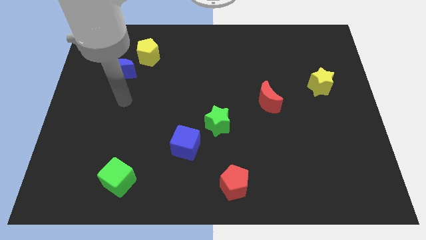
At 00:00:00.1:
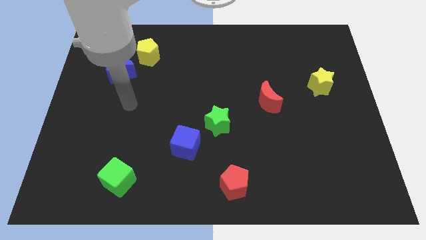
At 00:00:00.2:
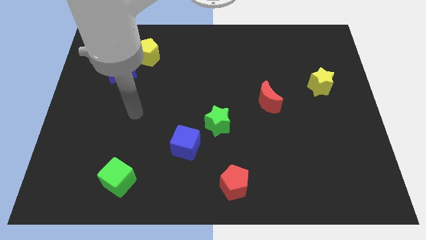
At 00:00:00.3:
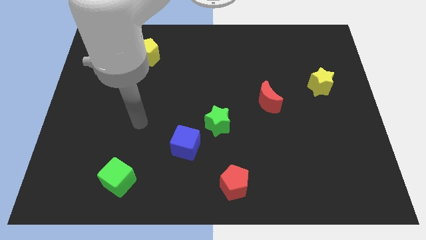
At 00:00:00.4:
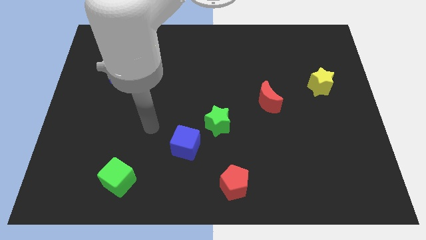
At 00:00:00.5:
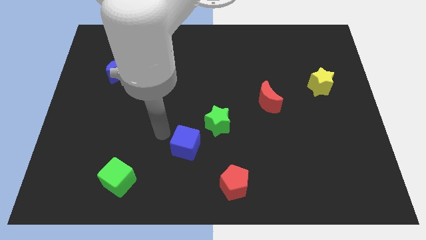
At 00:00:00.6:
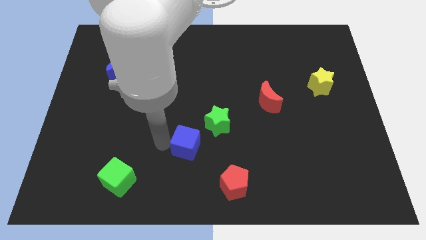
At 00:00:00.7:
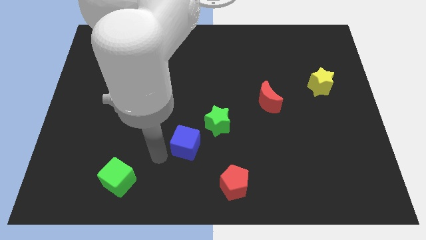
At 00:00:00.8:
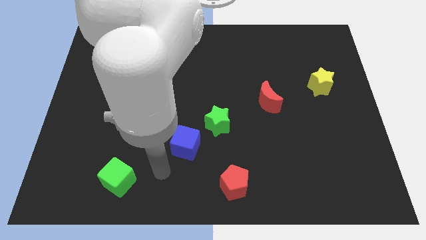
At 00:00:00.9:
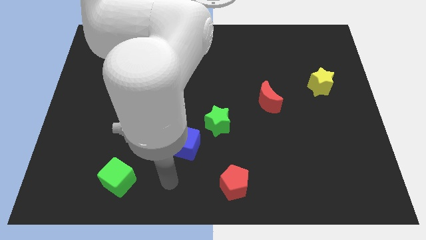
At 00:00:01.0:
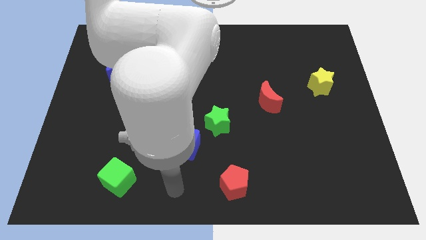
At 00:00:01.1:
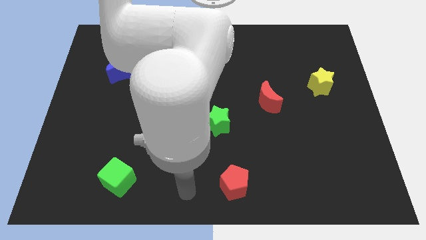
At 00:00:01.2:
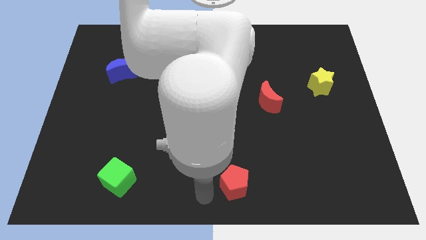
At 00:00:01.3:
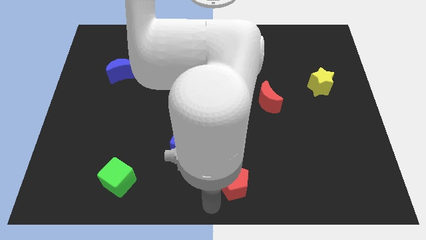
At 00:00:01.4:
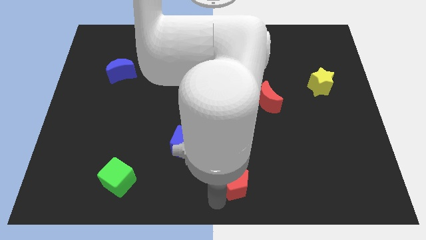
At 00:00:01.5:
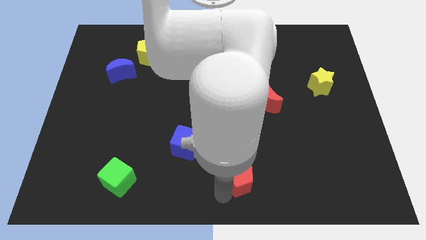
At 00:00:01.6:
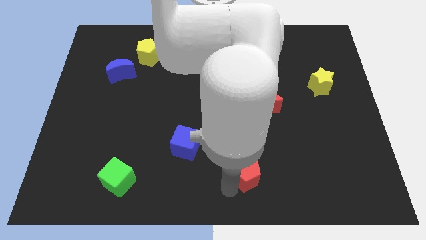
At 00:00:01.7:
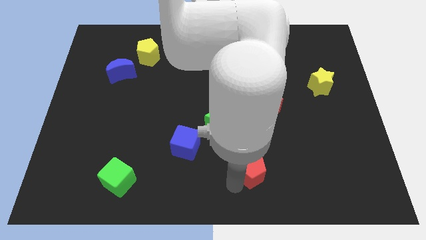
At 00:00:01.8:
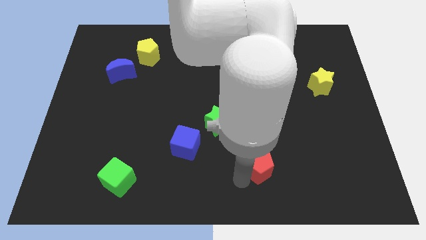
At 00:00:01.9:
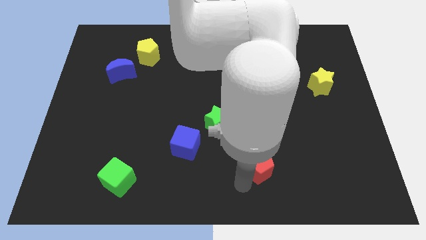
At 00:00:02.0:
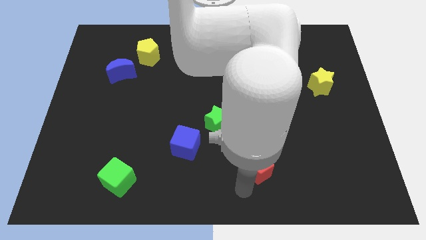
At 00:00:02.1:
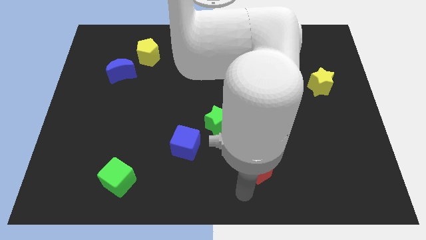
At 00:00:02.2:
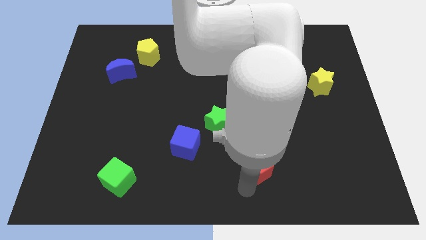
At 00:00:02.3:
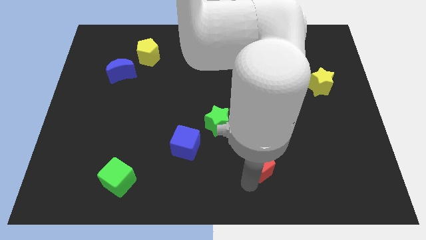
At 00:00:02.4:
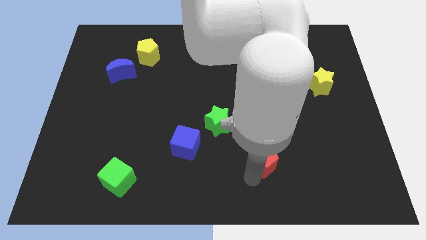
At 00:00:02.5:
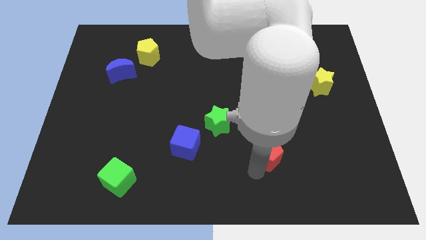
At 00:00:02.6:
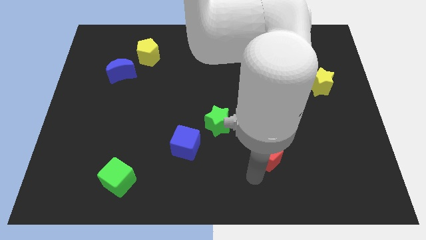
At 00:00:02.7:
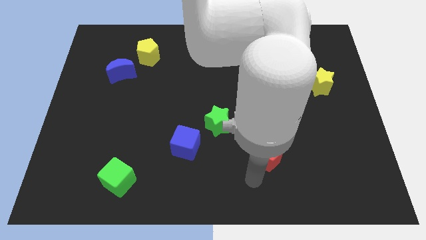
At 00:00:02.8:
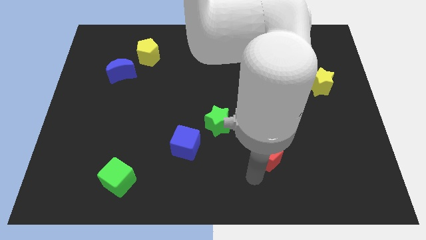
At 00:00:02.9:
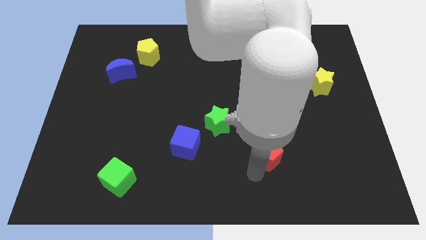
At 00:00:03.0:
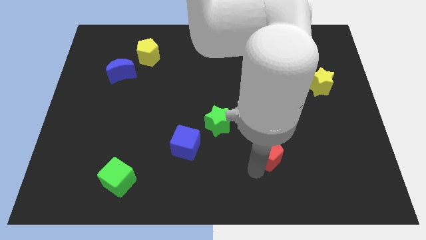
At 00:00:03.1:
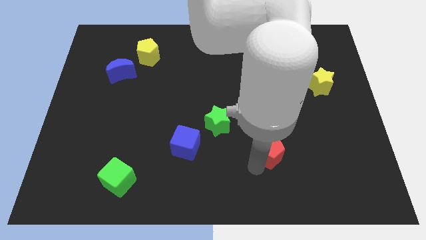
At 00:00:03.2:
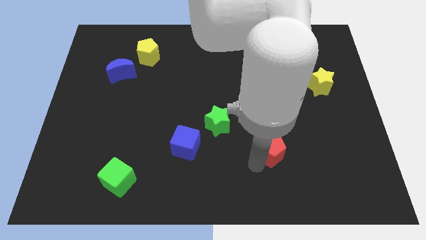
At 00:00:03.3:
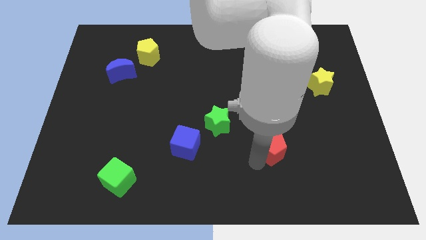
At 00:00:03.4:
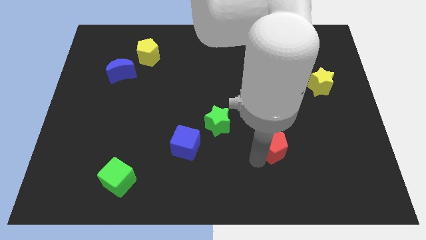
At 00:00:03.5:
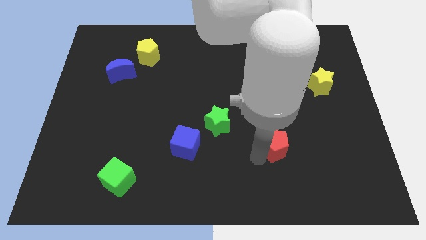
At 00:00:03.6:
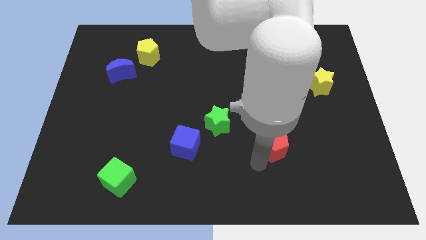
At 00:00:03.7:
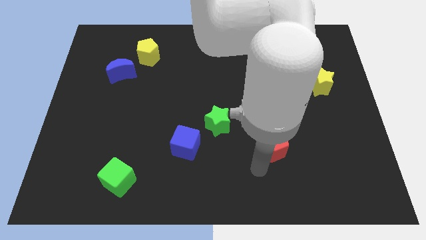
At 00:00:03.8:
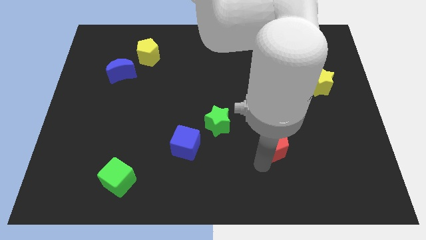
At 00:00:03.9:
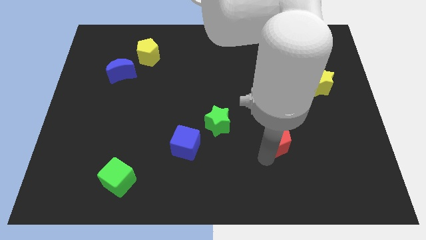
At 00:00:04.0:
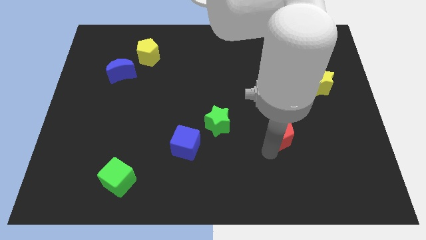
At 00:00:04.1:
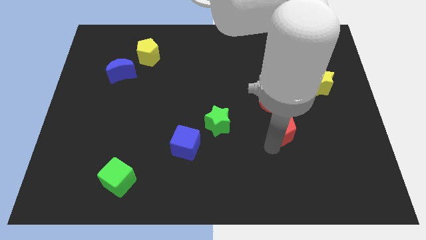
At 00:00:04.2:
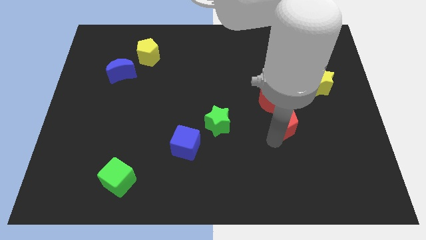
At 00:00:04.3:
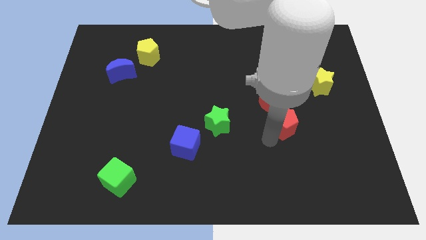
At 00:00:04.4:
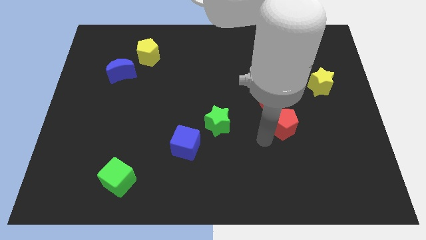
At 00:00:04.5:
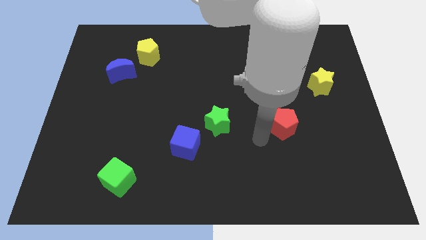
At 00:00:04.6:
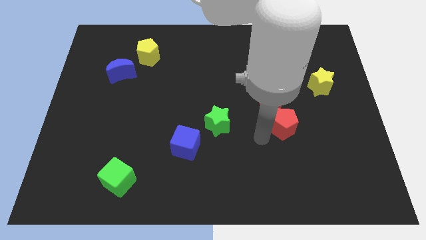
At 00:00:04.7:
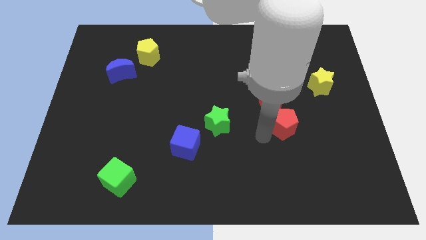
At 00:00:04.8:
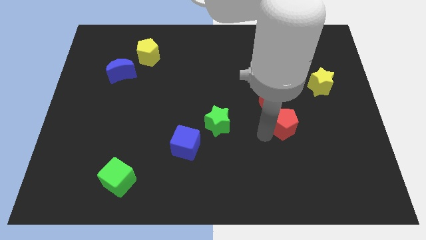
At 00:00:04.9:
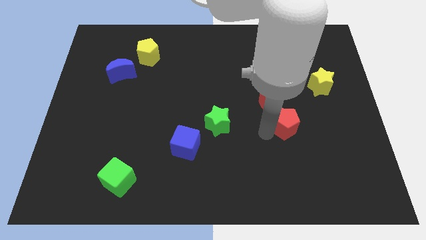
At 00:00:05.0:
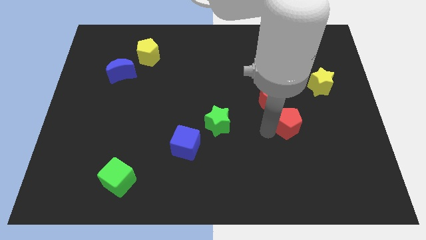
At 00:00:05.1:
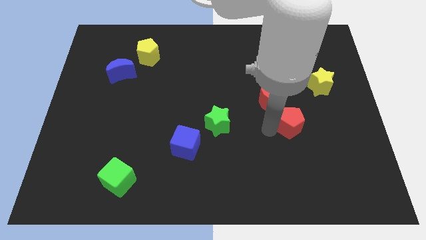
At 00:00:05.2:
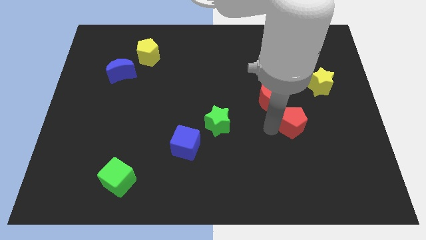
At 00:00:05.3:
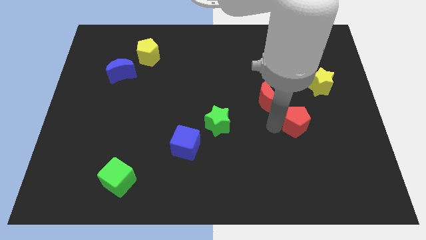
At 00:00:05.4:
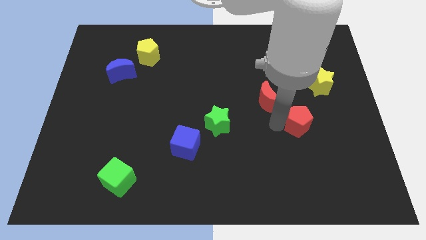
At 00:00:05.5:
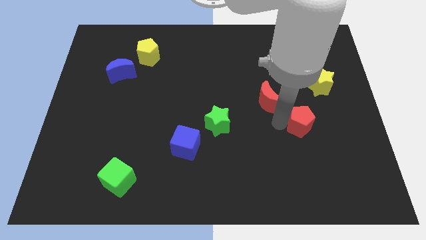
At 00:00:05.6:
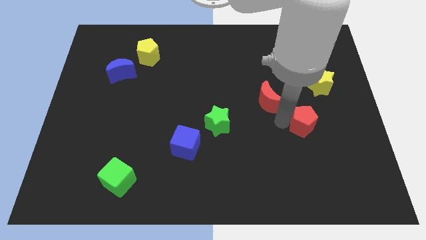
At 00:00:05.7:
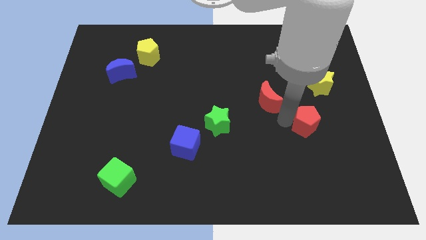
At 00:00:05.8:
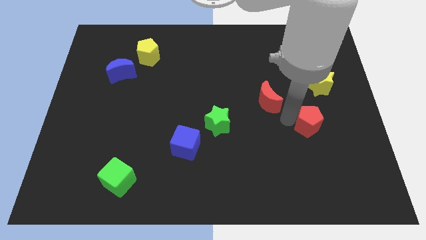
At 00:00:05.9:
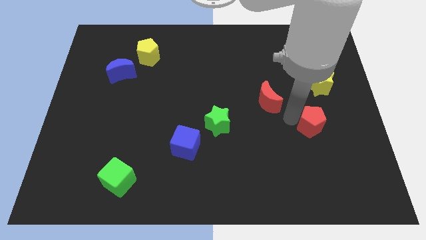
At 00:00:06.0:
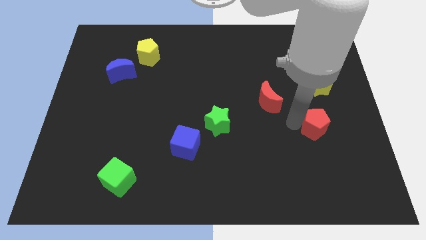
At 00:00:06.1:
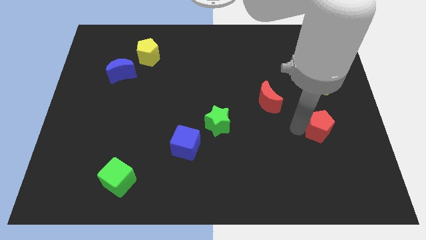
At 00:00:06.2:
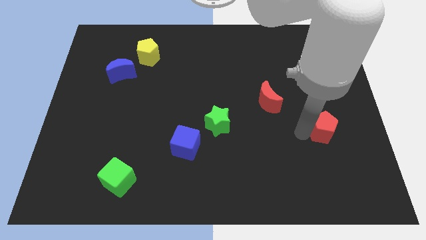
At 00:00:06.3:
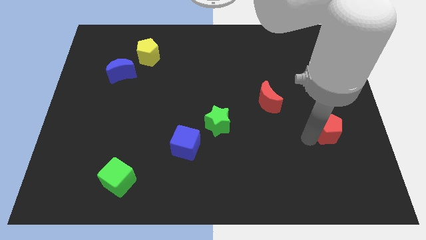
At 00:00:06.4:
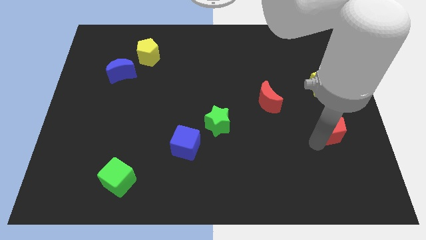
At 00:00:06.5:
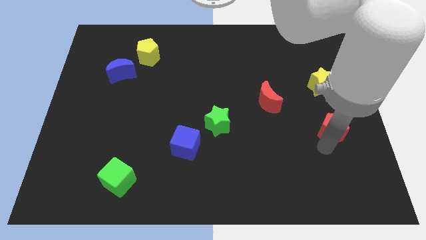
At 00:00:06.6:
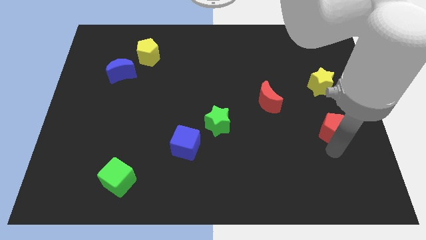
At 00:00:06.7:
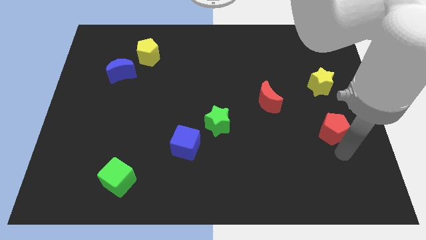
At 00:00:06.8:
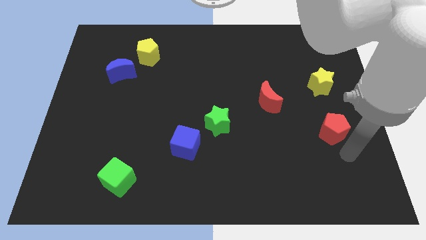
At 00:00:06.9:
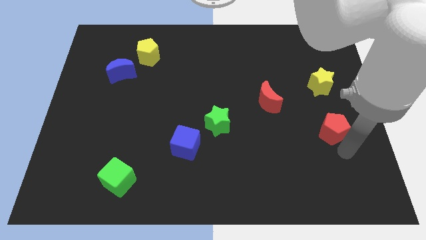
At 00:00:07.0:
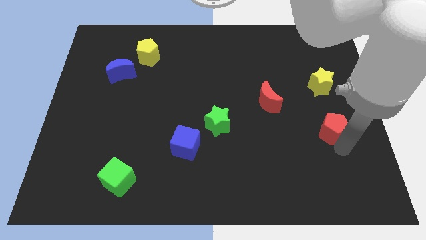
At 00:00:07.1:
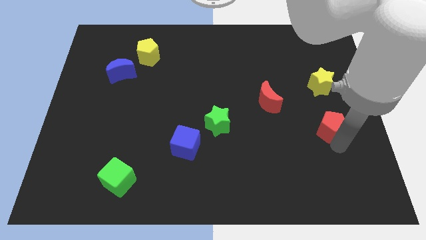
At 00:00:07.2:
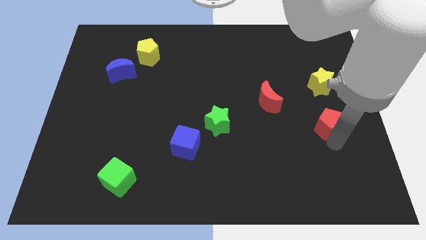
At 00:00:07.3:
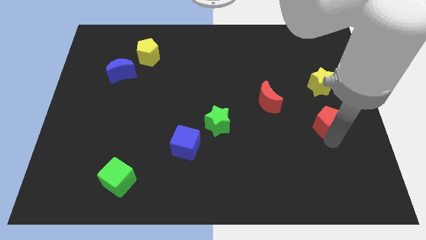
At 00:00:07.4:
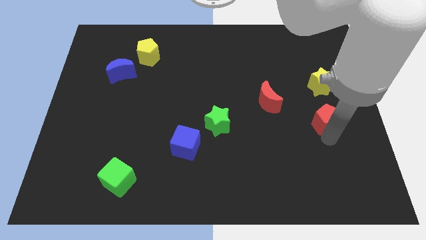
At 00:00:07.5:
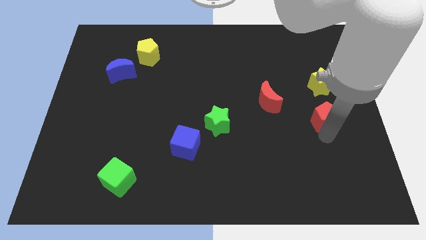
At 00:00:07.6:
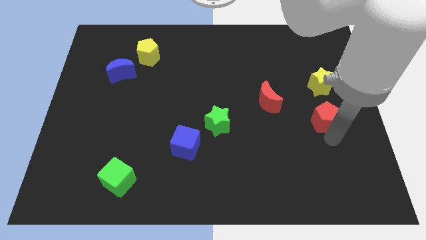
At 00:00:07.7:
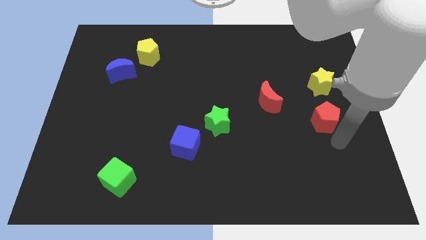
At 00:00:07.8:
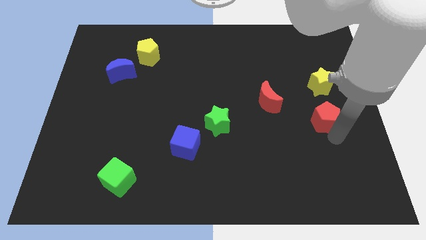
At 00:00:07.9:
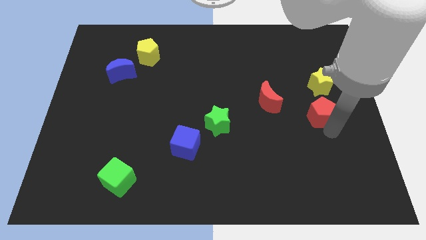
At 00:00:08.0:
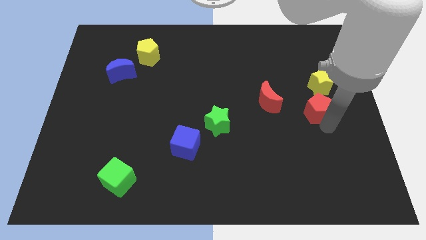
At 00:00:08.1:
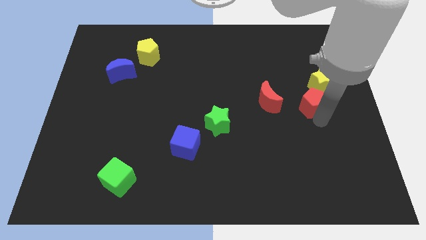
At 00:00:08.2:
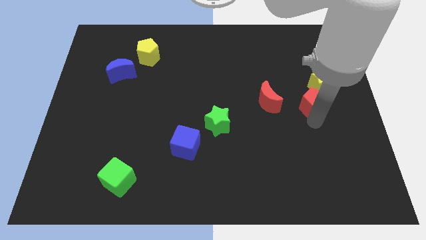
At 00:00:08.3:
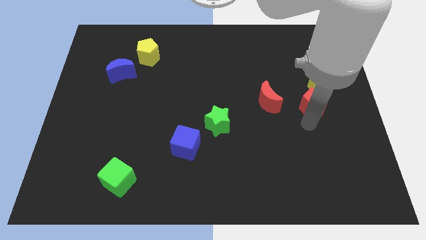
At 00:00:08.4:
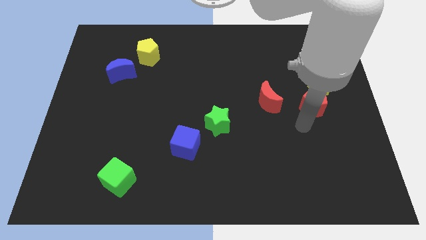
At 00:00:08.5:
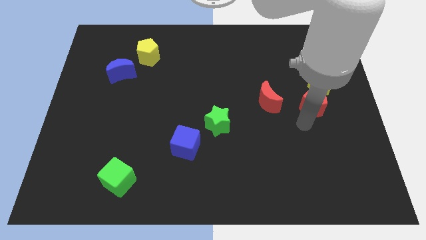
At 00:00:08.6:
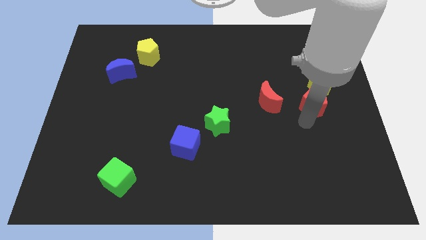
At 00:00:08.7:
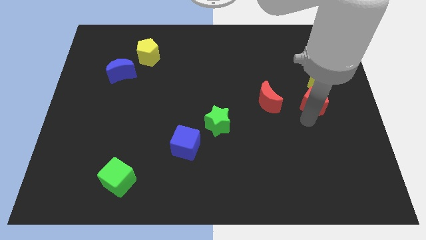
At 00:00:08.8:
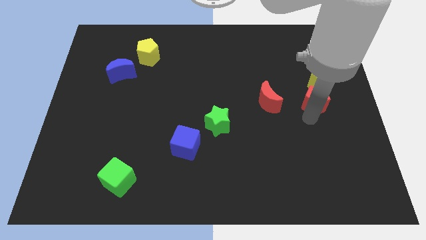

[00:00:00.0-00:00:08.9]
put the red pentagon towards the yellow star
